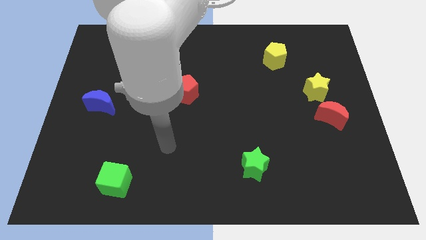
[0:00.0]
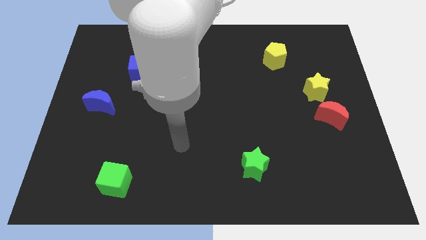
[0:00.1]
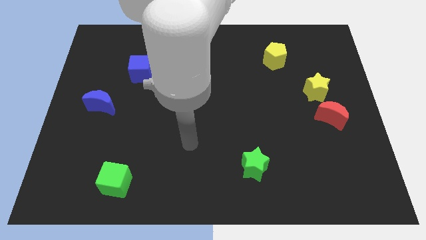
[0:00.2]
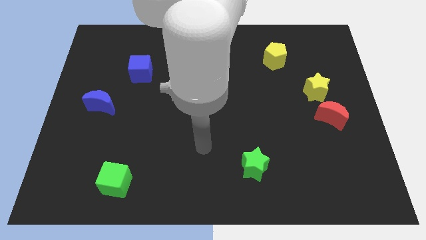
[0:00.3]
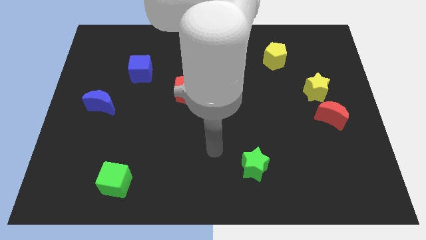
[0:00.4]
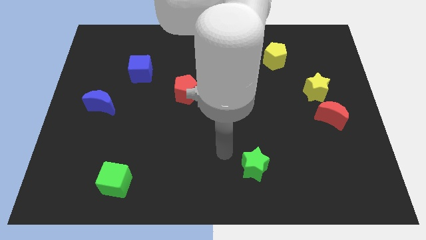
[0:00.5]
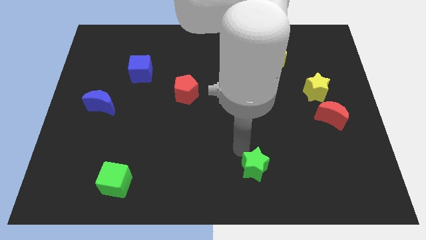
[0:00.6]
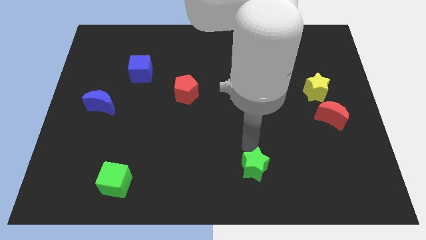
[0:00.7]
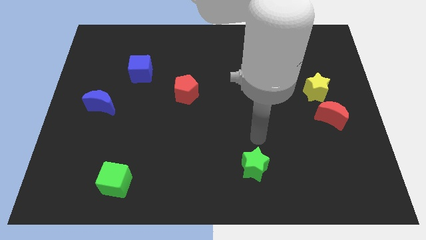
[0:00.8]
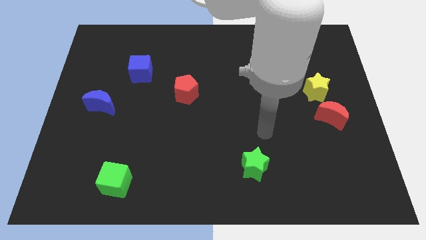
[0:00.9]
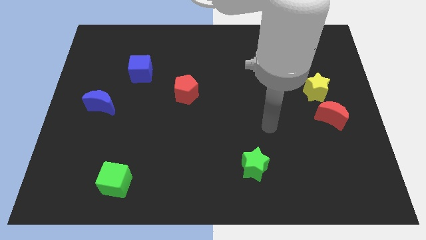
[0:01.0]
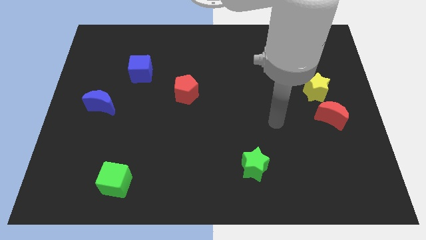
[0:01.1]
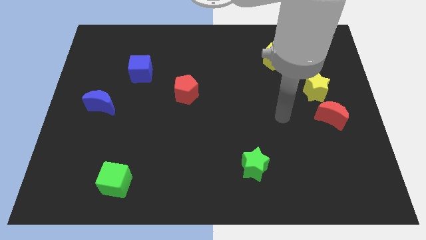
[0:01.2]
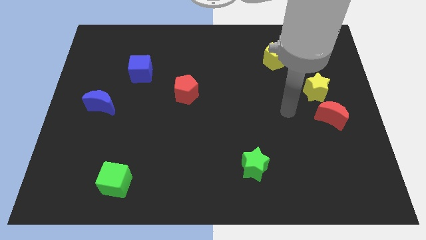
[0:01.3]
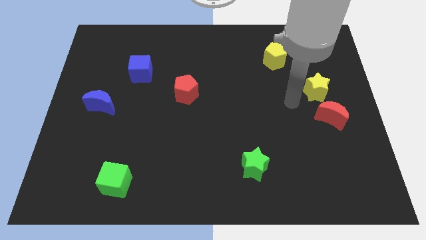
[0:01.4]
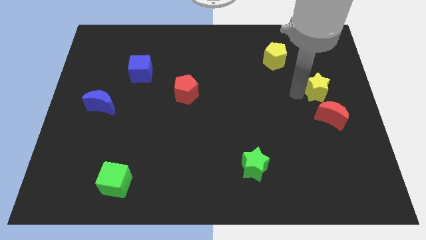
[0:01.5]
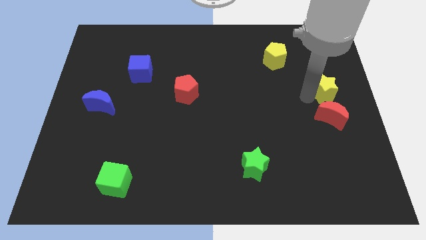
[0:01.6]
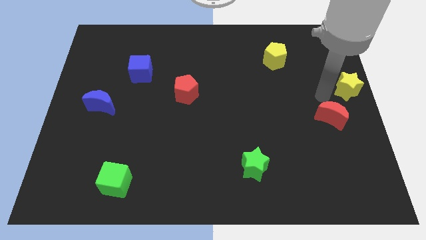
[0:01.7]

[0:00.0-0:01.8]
separate the red moon from the yellow star

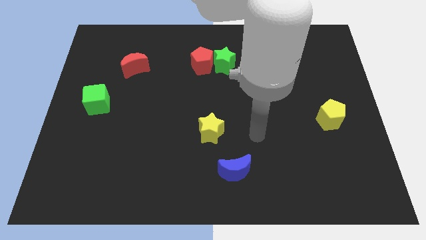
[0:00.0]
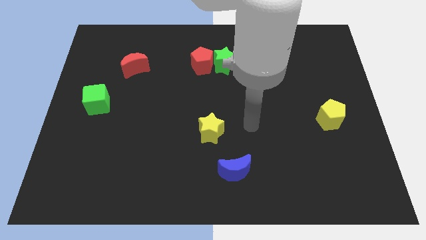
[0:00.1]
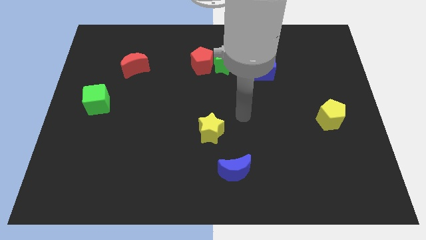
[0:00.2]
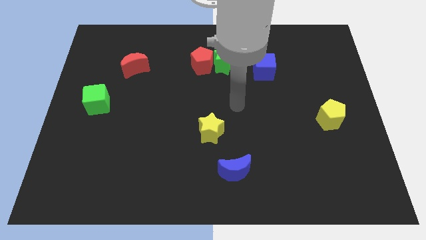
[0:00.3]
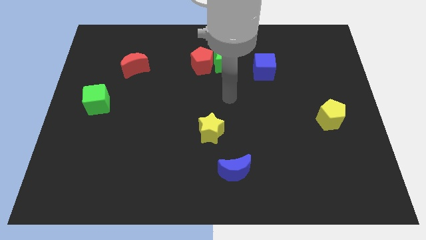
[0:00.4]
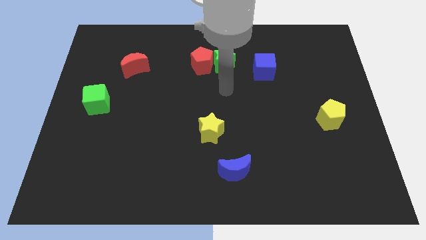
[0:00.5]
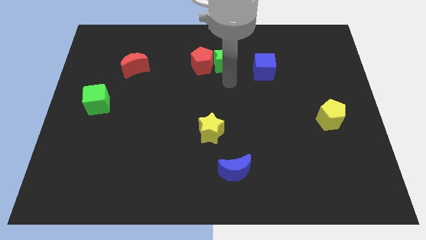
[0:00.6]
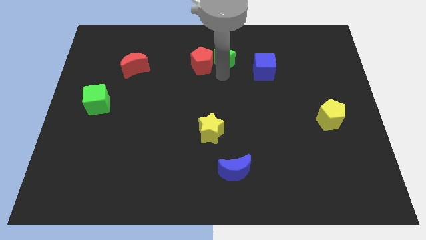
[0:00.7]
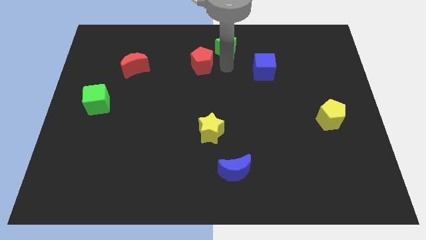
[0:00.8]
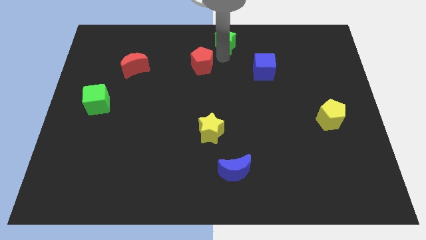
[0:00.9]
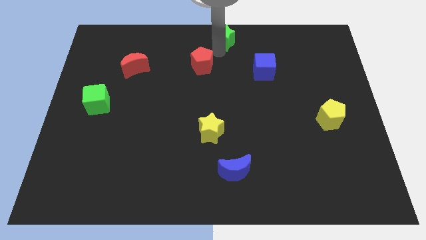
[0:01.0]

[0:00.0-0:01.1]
pull the red pentagon apart from the green star

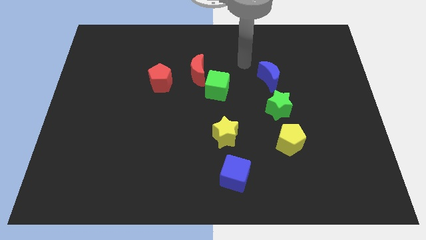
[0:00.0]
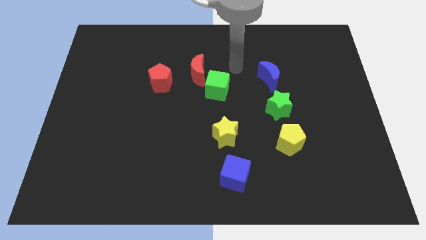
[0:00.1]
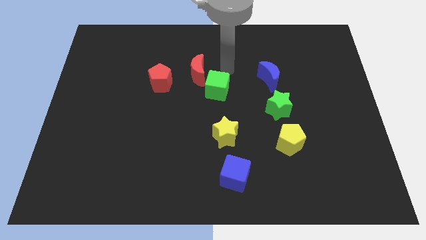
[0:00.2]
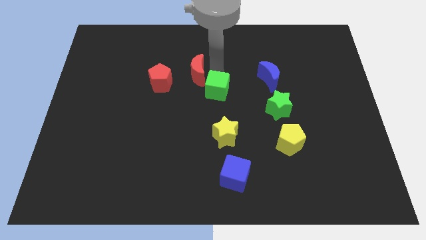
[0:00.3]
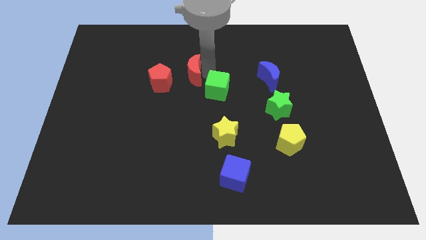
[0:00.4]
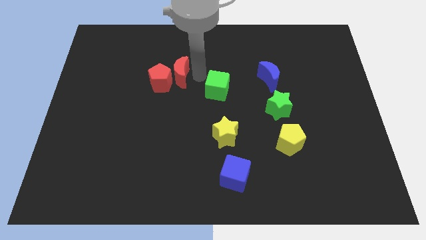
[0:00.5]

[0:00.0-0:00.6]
separate the green cube from the red moon

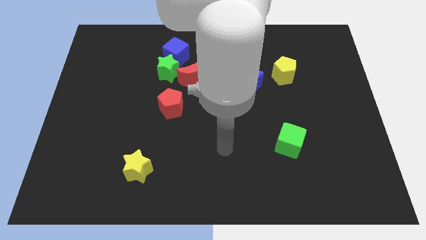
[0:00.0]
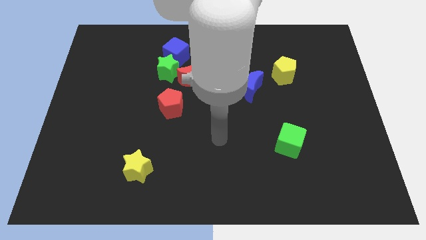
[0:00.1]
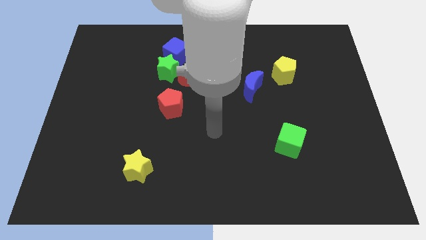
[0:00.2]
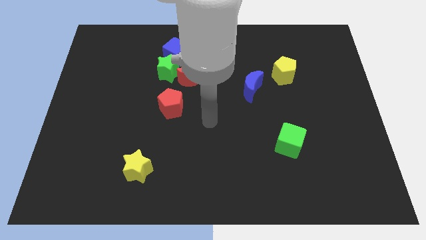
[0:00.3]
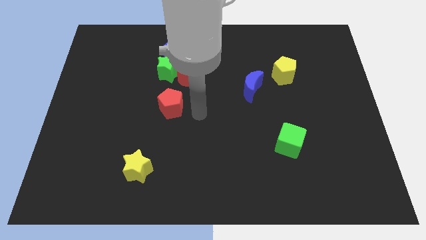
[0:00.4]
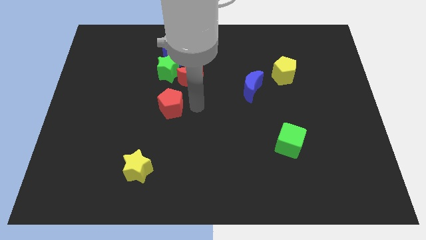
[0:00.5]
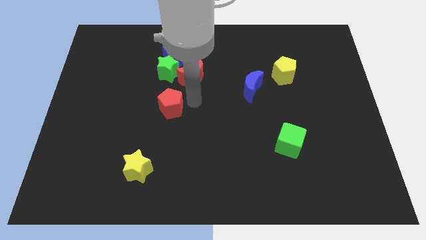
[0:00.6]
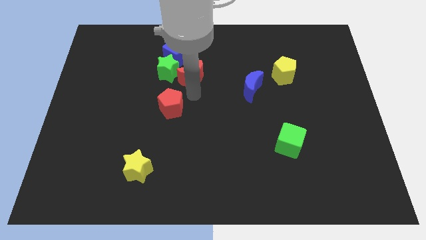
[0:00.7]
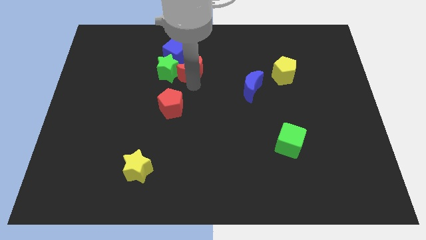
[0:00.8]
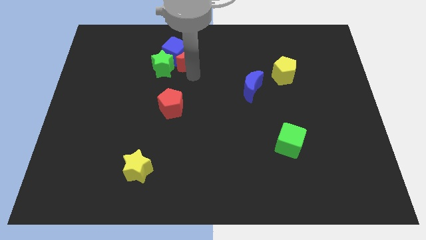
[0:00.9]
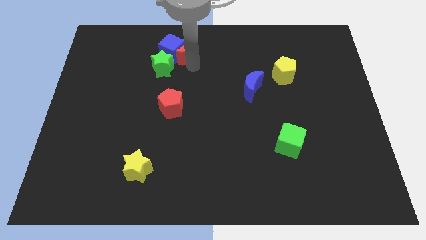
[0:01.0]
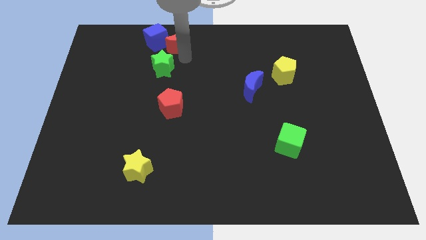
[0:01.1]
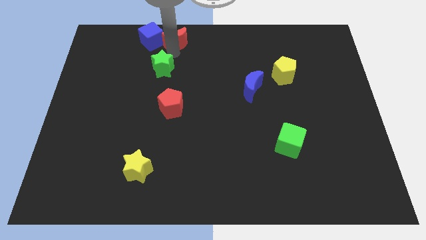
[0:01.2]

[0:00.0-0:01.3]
separate the green star from the blue cube and red moon

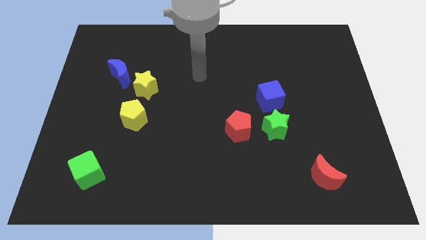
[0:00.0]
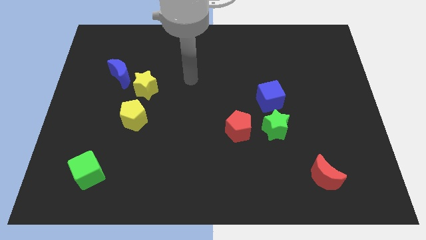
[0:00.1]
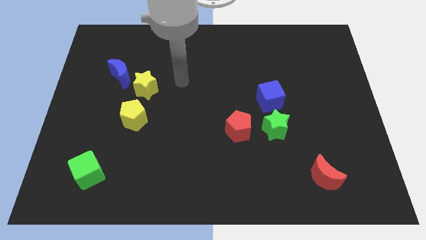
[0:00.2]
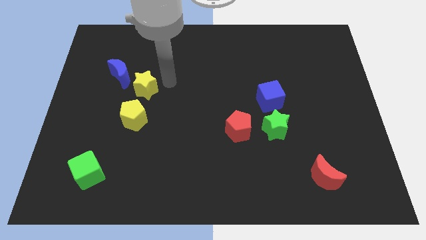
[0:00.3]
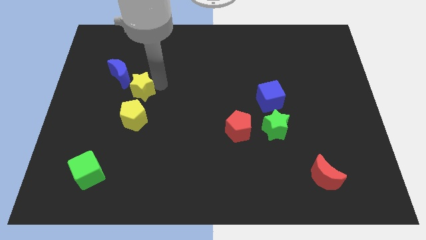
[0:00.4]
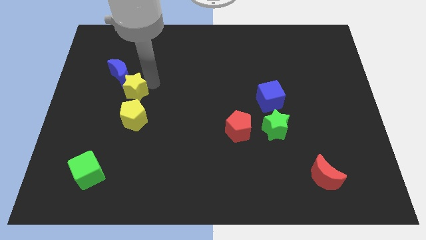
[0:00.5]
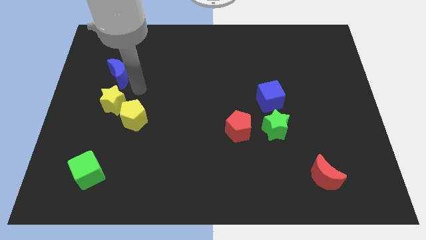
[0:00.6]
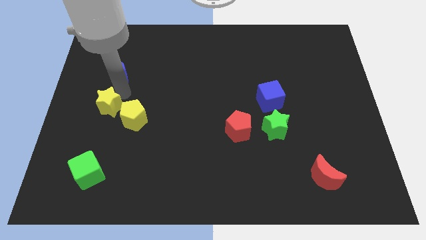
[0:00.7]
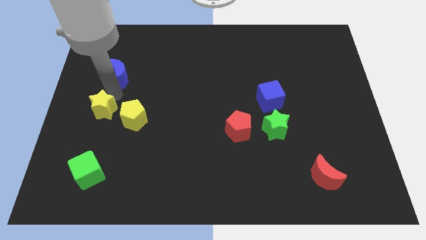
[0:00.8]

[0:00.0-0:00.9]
move the blue moon away from the yellow star

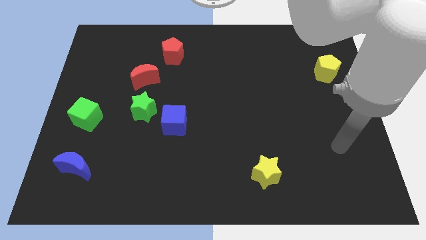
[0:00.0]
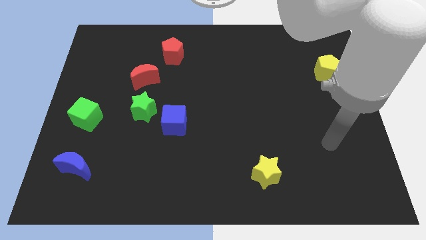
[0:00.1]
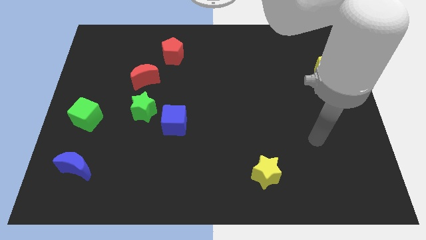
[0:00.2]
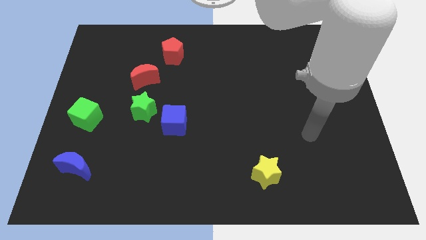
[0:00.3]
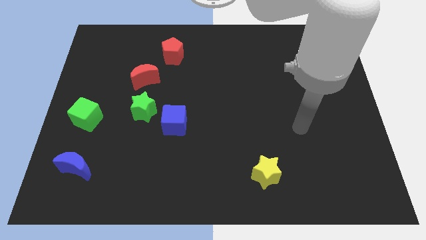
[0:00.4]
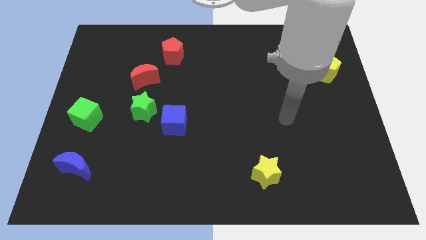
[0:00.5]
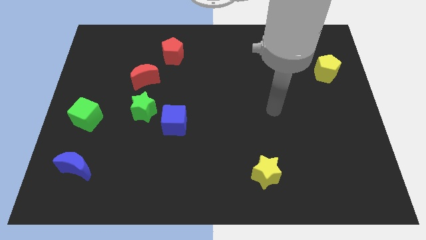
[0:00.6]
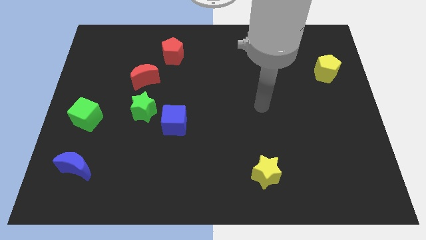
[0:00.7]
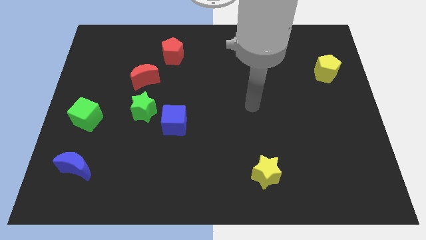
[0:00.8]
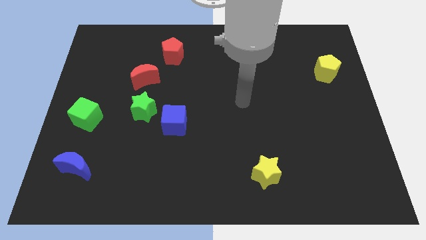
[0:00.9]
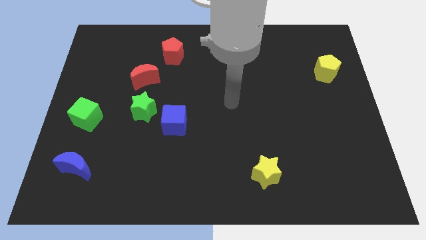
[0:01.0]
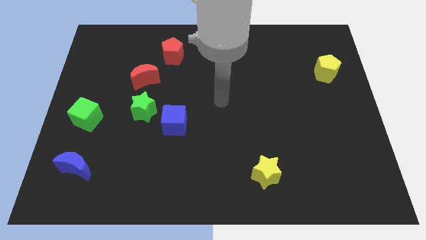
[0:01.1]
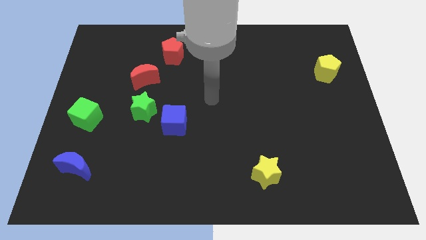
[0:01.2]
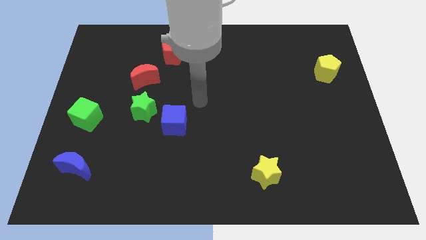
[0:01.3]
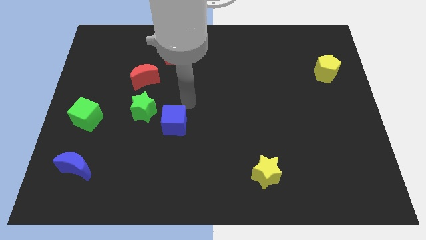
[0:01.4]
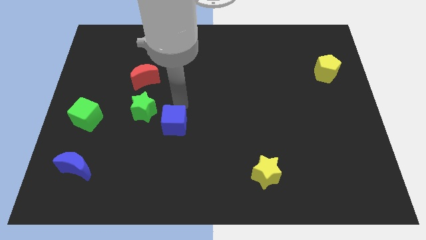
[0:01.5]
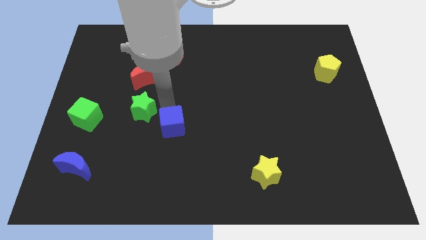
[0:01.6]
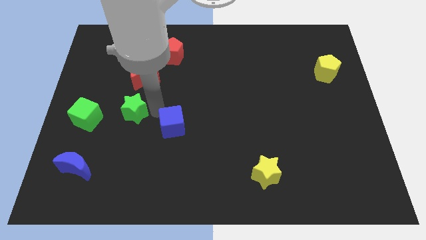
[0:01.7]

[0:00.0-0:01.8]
move the blue cube away from the green star

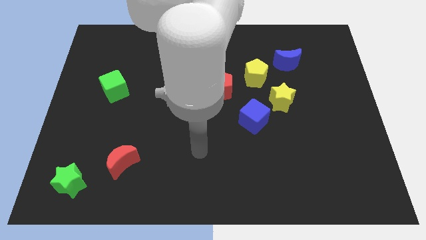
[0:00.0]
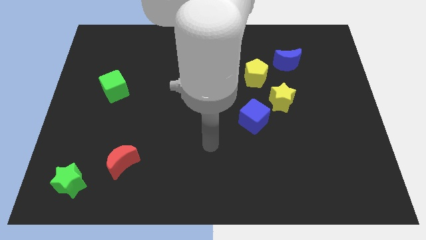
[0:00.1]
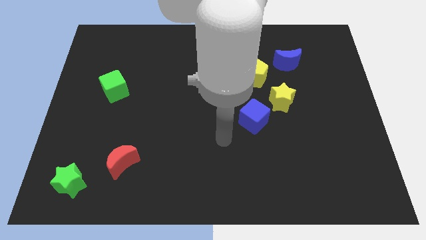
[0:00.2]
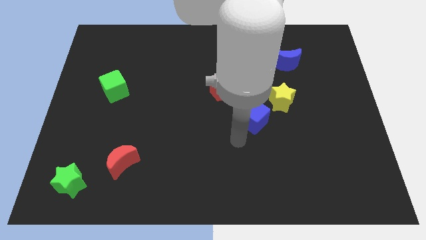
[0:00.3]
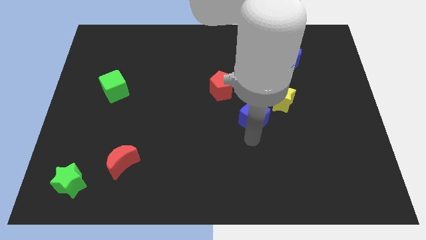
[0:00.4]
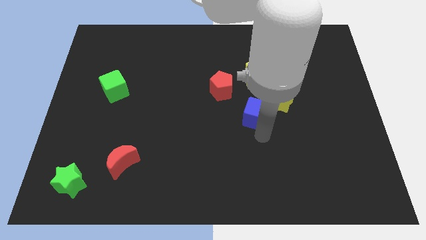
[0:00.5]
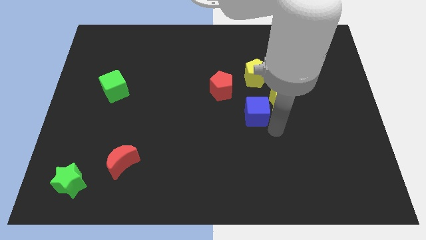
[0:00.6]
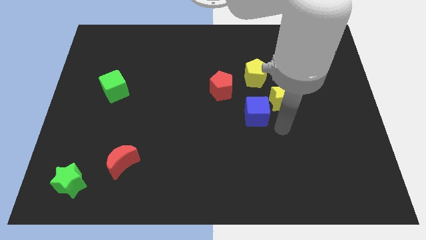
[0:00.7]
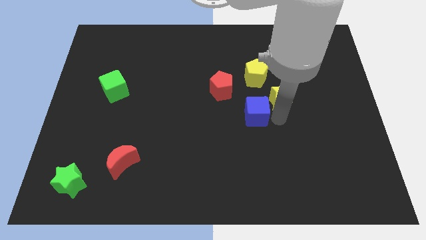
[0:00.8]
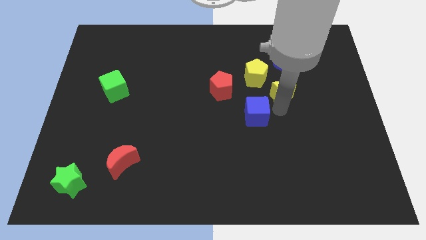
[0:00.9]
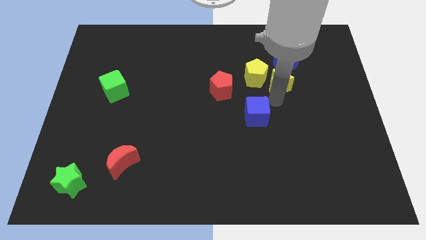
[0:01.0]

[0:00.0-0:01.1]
move the blue cube away from the yellow star

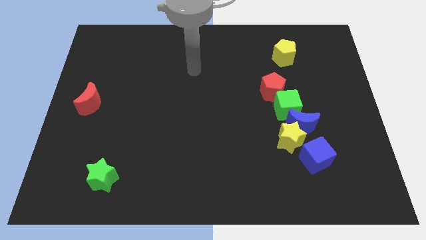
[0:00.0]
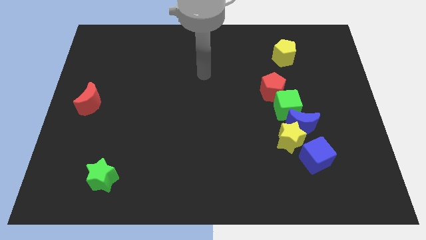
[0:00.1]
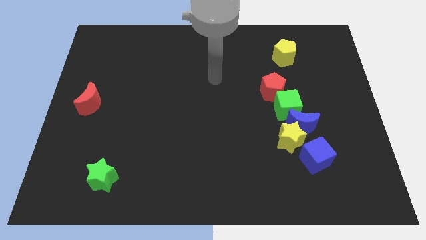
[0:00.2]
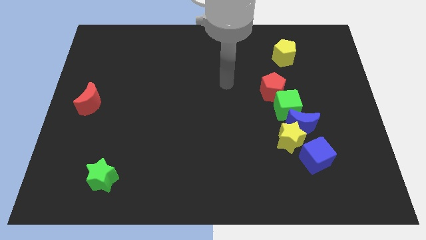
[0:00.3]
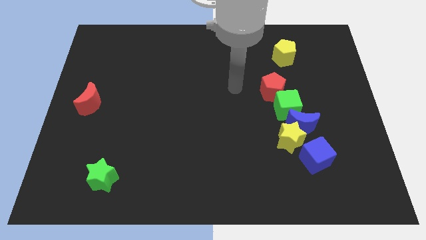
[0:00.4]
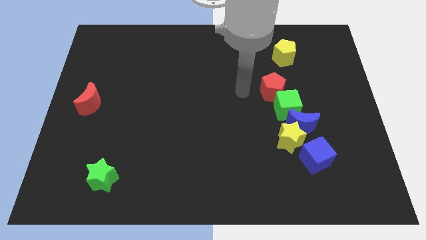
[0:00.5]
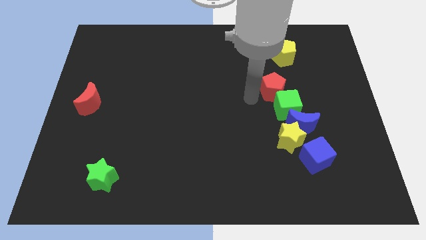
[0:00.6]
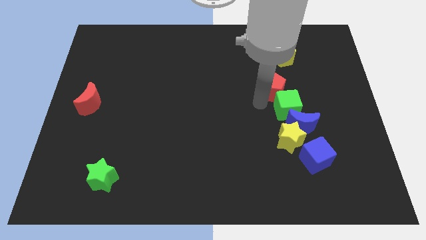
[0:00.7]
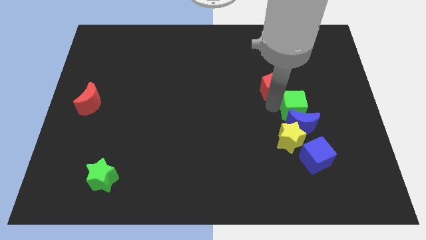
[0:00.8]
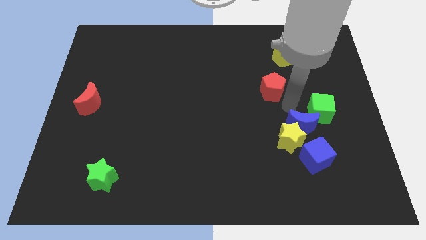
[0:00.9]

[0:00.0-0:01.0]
move the red pentagon away from the green cube
